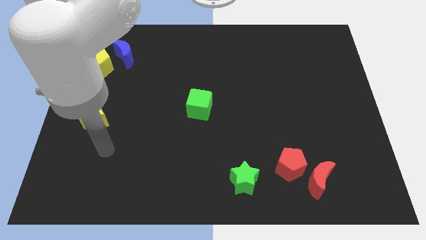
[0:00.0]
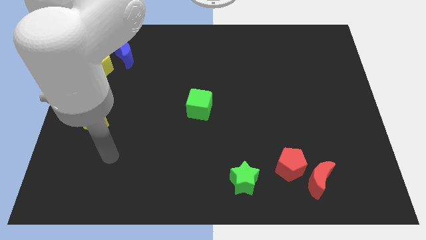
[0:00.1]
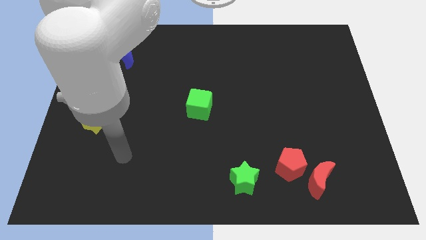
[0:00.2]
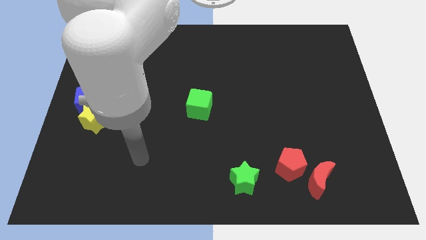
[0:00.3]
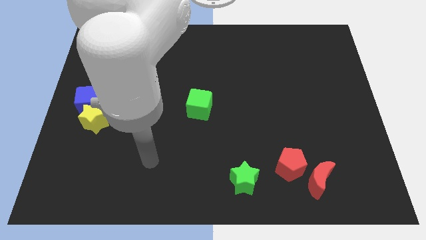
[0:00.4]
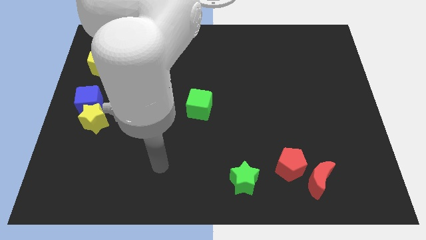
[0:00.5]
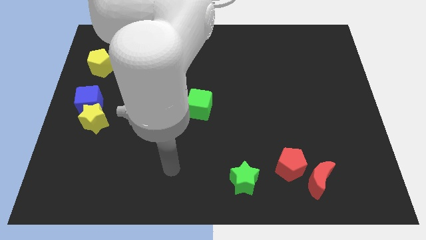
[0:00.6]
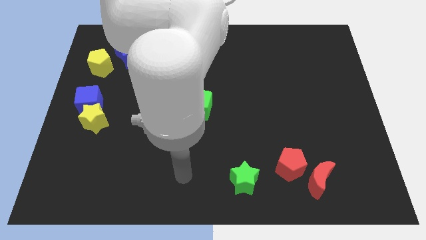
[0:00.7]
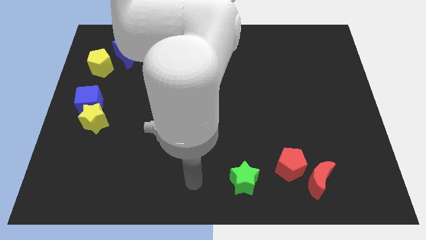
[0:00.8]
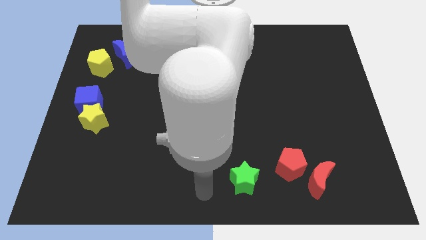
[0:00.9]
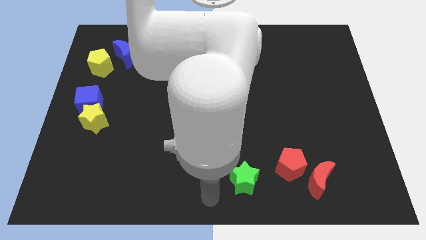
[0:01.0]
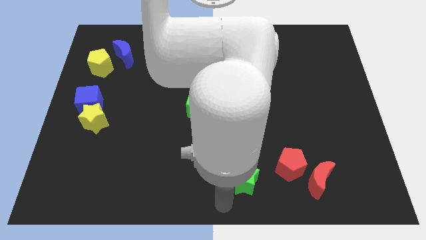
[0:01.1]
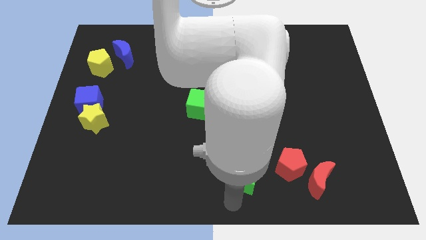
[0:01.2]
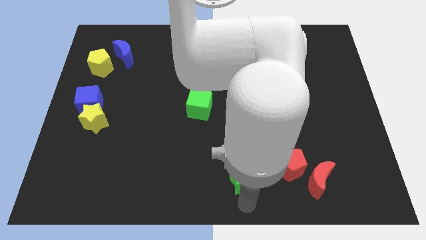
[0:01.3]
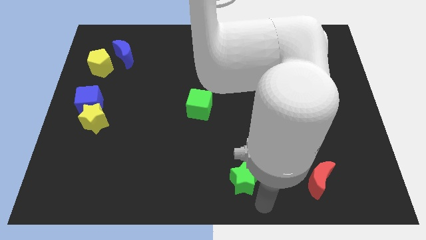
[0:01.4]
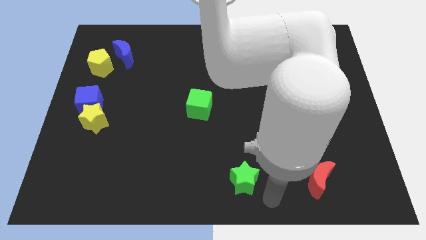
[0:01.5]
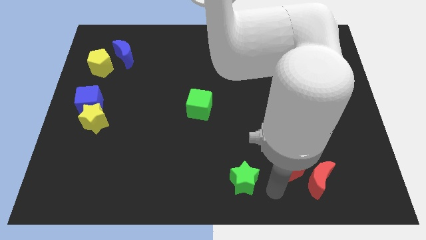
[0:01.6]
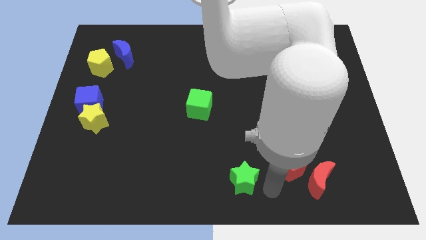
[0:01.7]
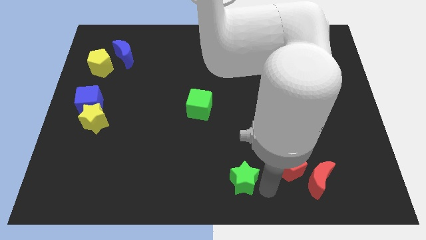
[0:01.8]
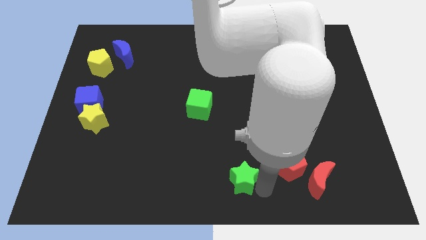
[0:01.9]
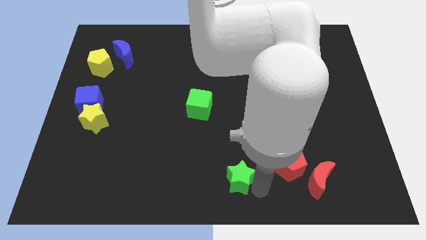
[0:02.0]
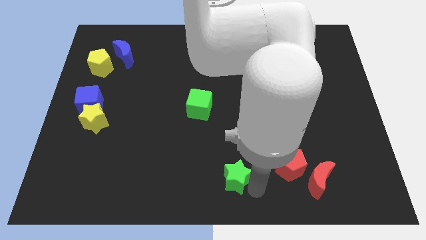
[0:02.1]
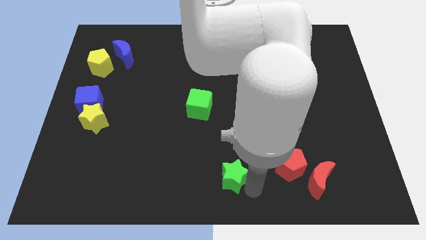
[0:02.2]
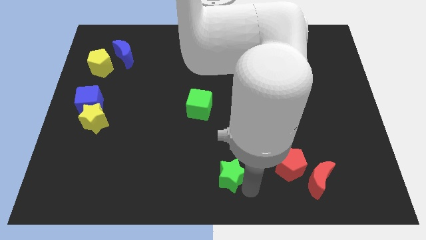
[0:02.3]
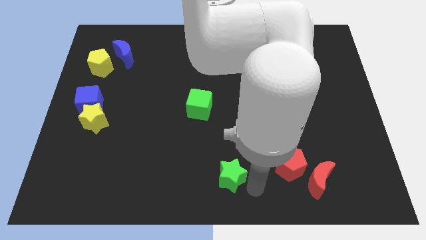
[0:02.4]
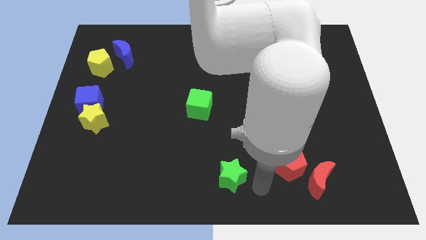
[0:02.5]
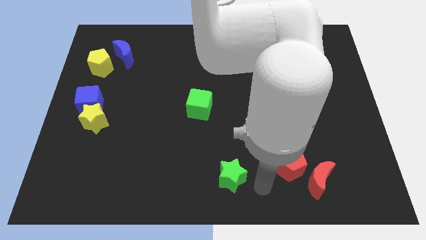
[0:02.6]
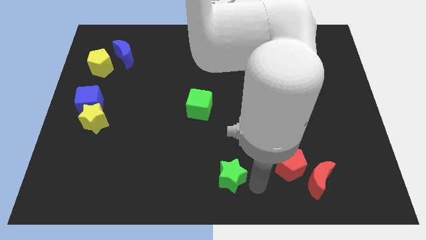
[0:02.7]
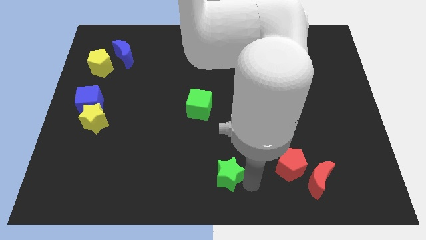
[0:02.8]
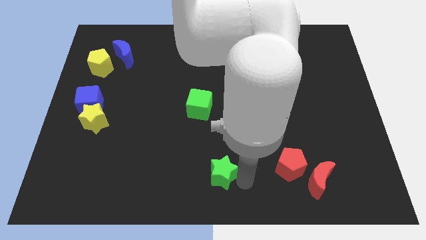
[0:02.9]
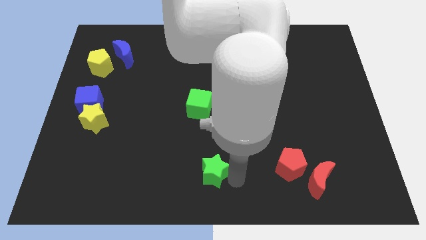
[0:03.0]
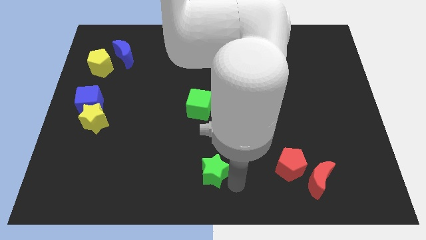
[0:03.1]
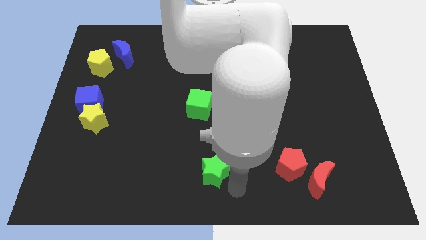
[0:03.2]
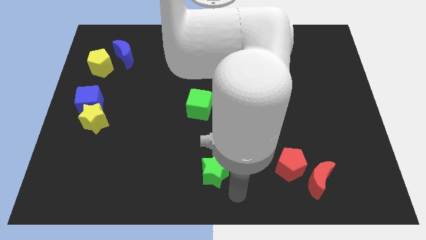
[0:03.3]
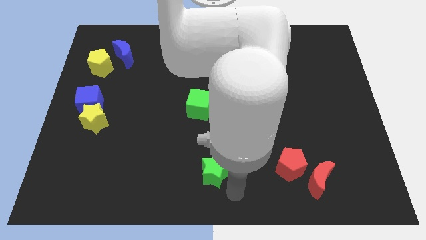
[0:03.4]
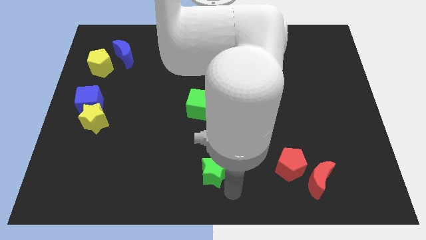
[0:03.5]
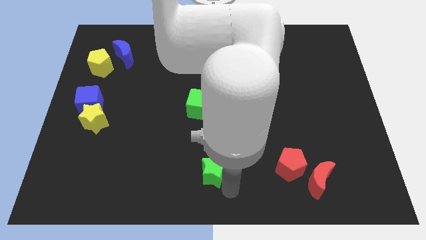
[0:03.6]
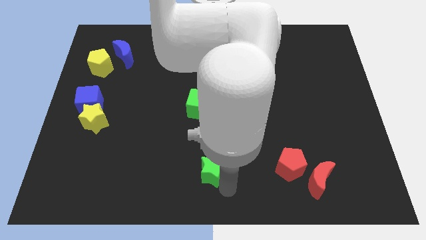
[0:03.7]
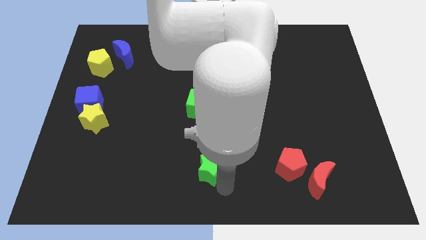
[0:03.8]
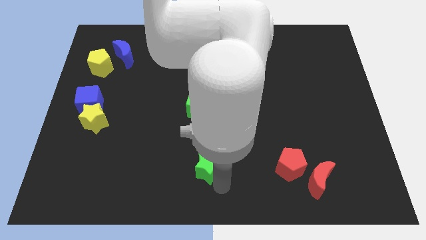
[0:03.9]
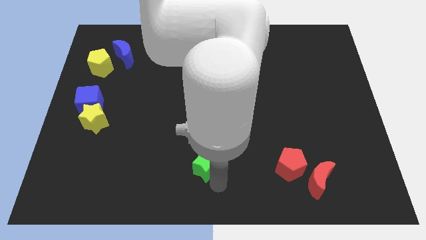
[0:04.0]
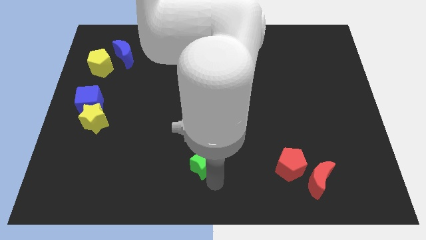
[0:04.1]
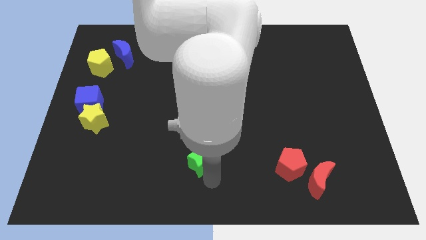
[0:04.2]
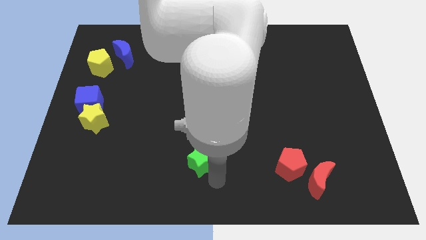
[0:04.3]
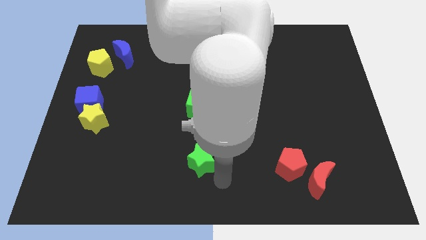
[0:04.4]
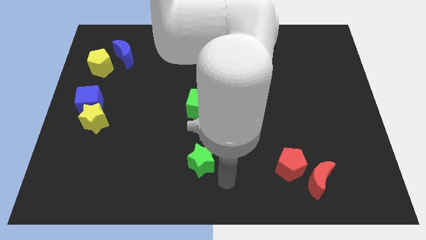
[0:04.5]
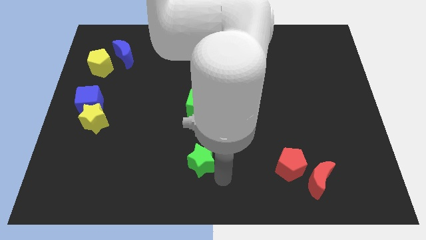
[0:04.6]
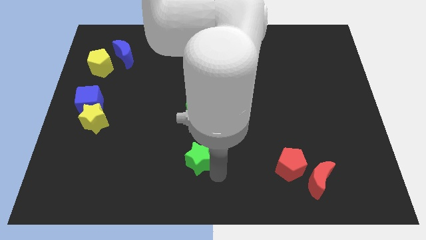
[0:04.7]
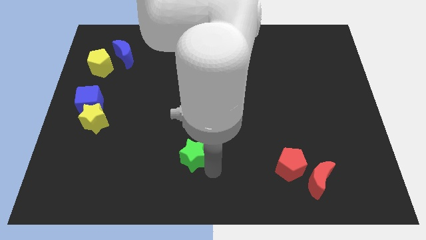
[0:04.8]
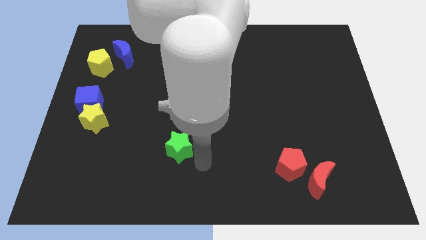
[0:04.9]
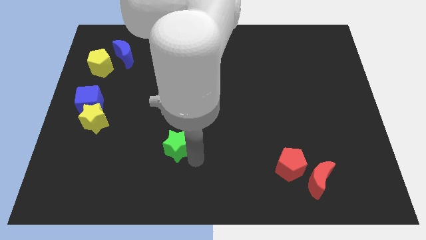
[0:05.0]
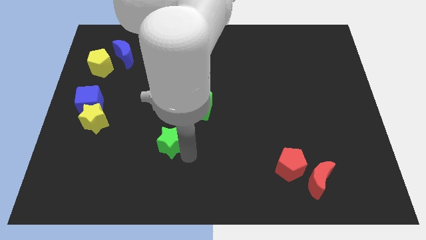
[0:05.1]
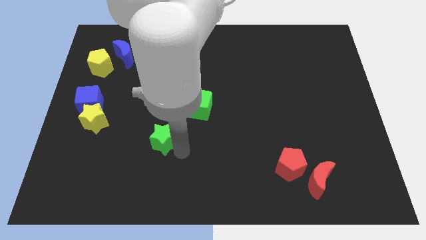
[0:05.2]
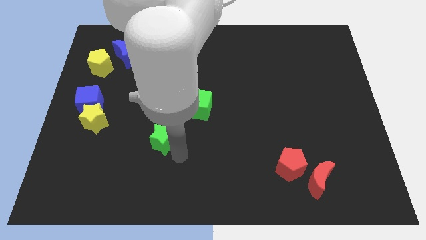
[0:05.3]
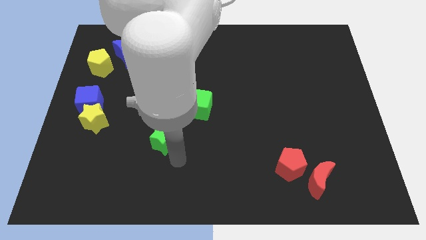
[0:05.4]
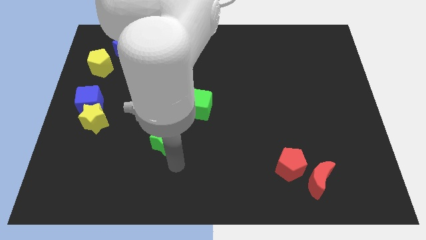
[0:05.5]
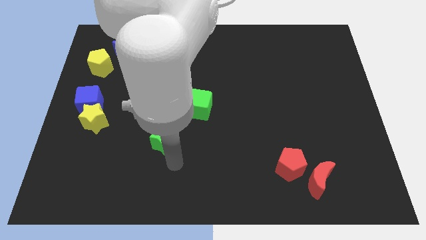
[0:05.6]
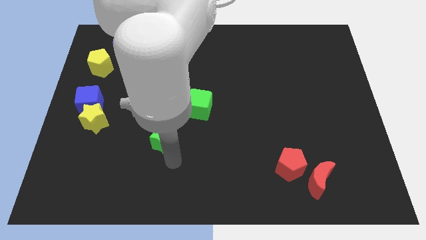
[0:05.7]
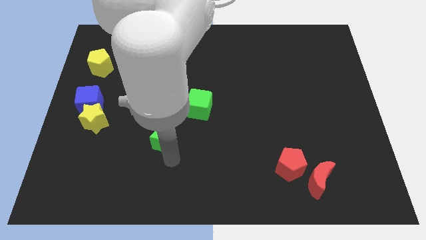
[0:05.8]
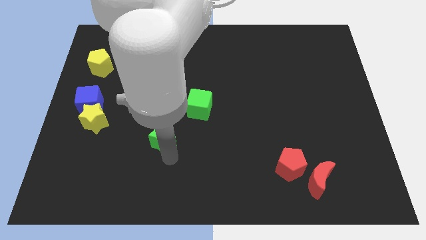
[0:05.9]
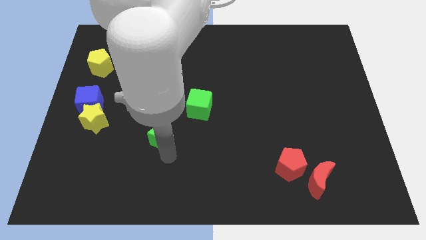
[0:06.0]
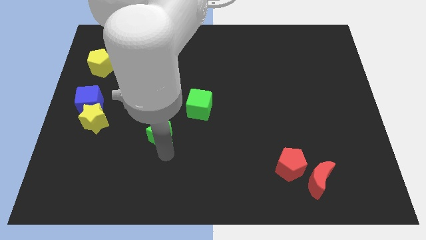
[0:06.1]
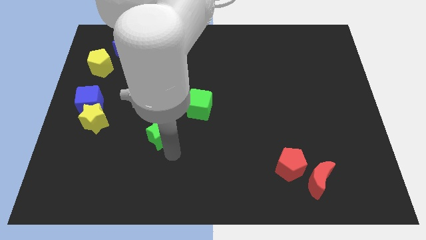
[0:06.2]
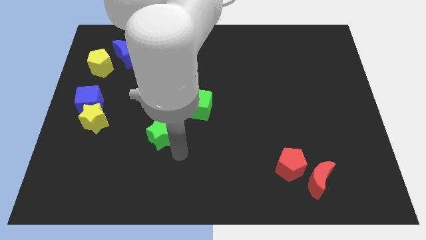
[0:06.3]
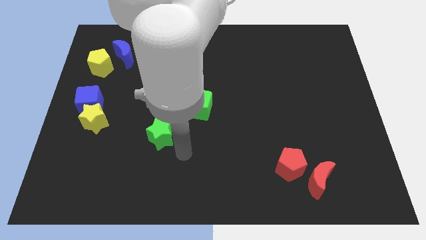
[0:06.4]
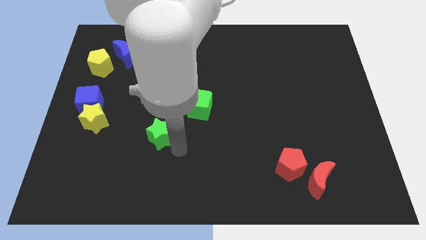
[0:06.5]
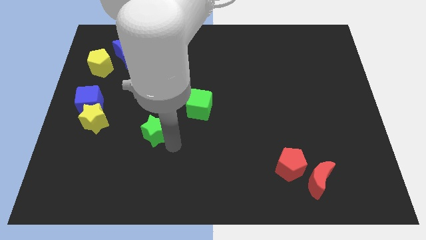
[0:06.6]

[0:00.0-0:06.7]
put the green star to the right of the yellow star
